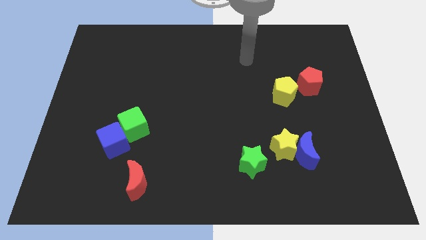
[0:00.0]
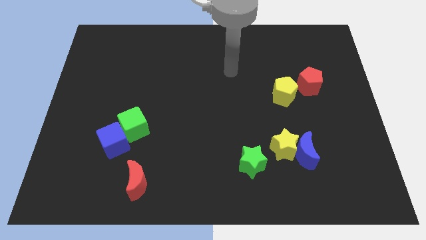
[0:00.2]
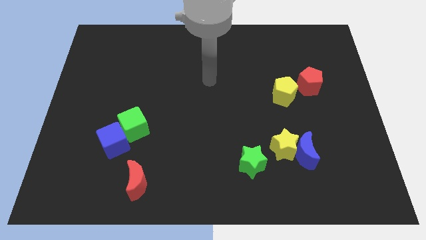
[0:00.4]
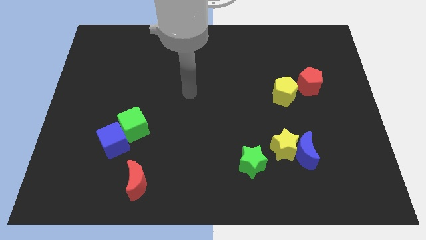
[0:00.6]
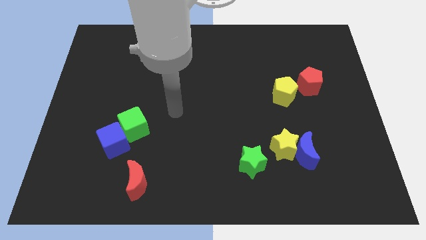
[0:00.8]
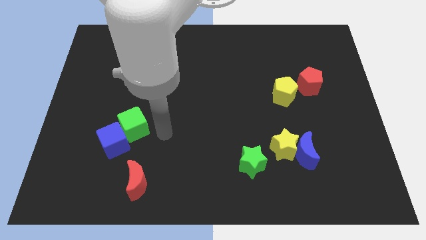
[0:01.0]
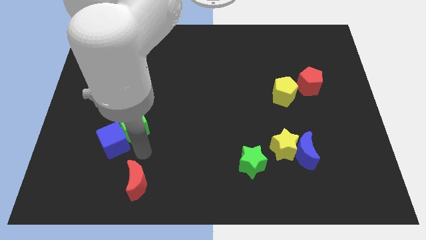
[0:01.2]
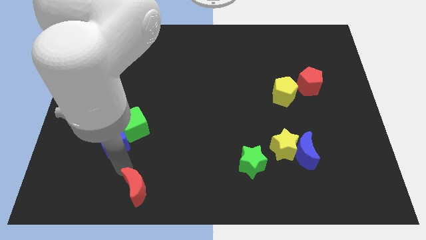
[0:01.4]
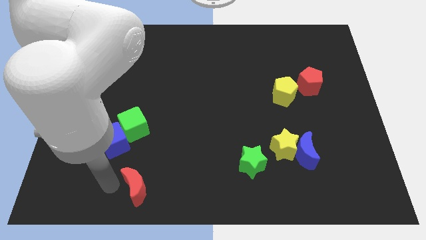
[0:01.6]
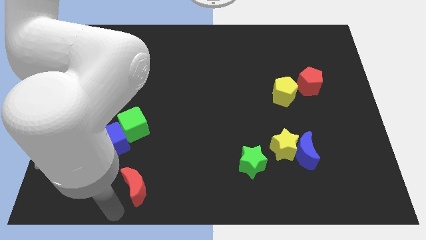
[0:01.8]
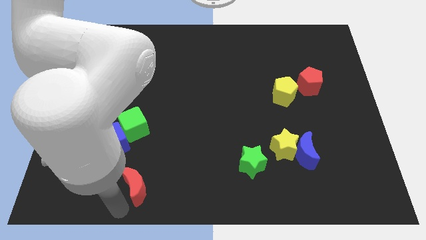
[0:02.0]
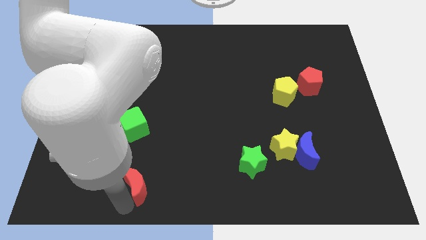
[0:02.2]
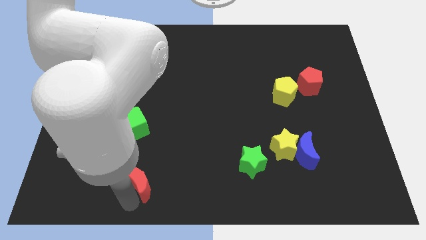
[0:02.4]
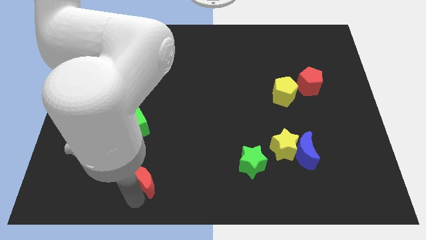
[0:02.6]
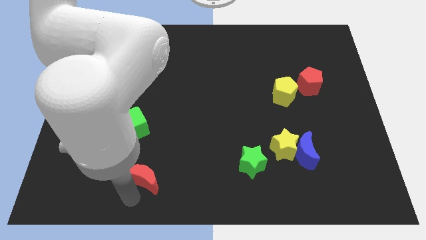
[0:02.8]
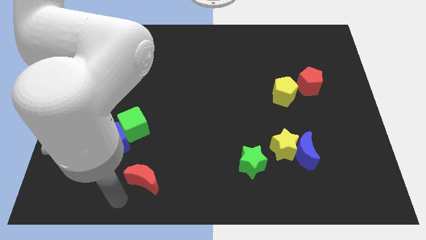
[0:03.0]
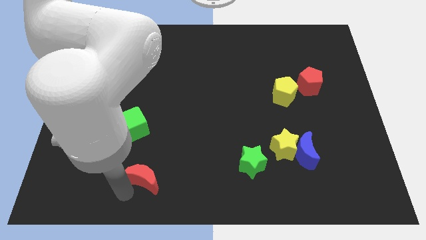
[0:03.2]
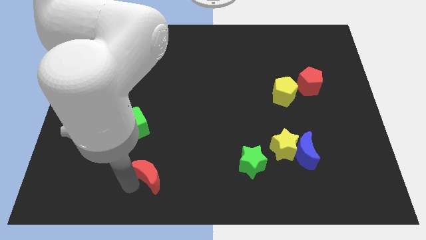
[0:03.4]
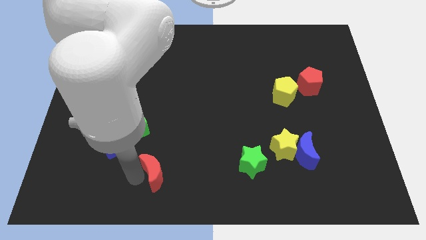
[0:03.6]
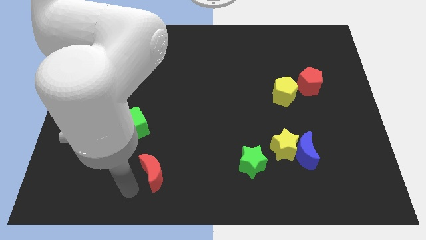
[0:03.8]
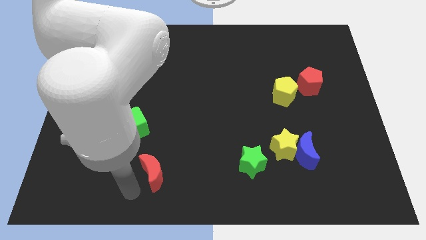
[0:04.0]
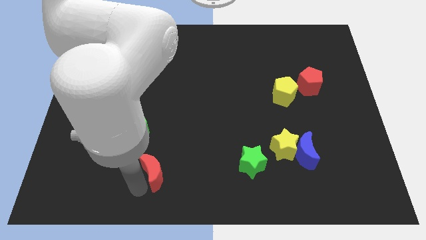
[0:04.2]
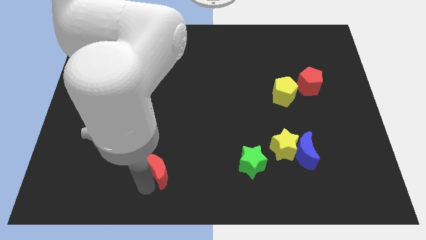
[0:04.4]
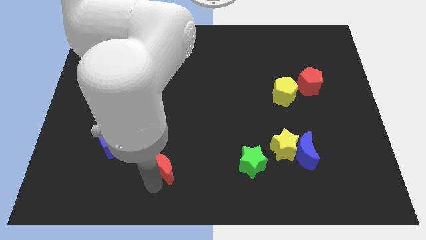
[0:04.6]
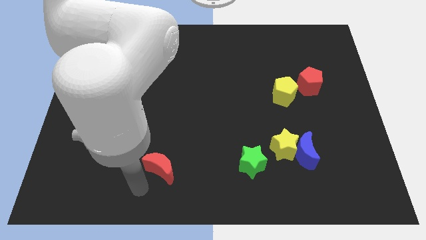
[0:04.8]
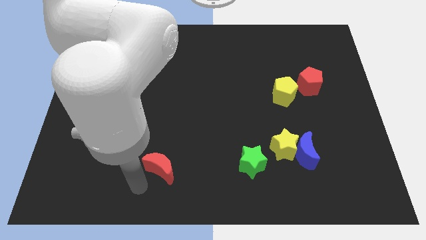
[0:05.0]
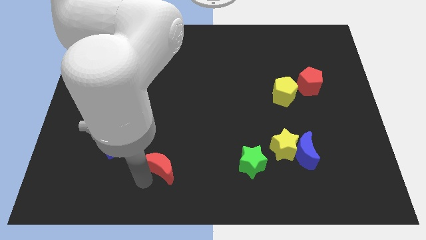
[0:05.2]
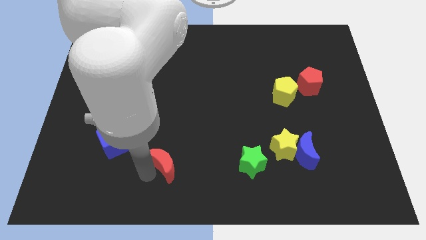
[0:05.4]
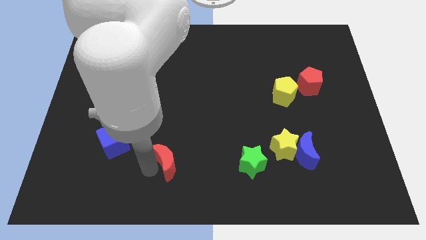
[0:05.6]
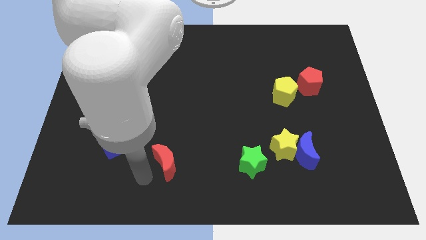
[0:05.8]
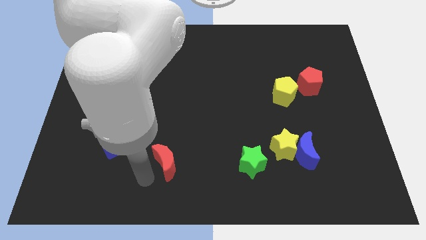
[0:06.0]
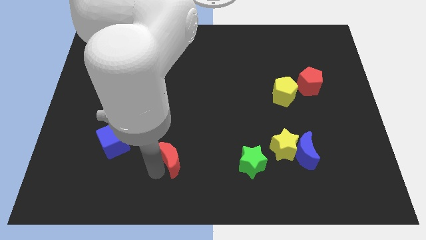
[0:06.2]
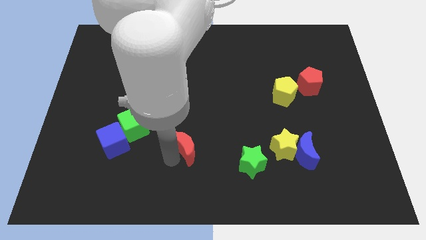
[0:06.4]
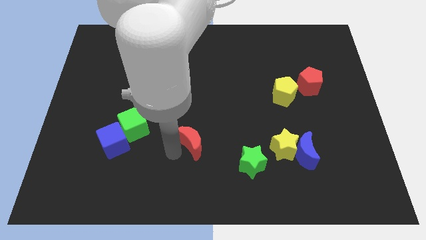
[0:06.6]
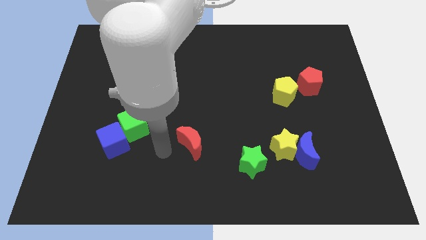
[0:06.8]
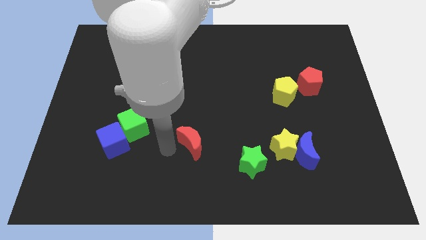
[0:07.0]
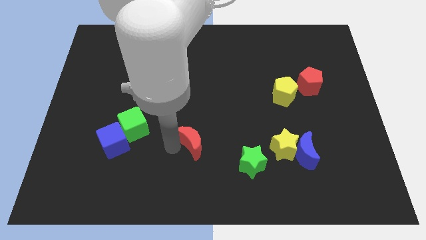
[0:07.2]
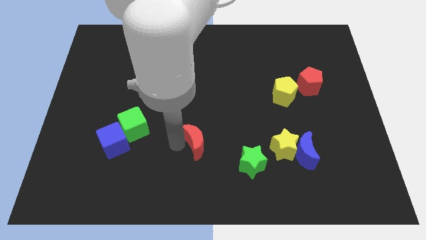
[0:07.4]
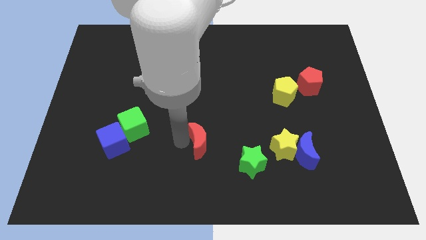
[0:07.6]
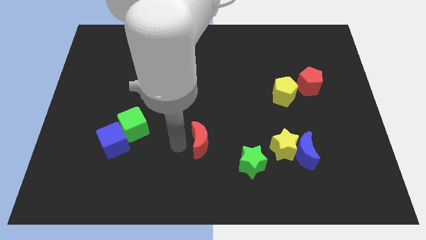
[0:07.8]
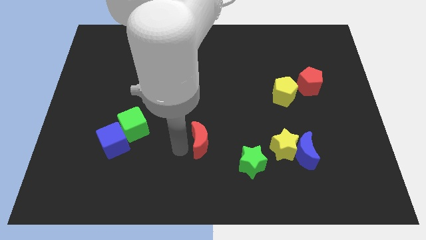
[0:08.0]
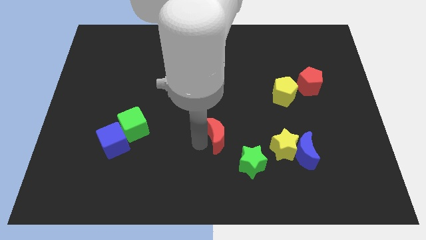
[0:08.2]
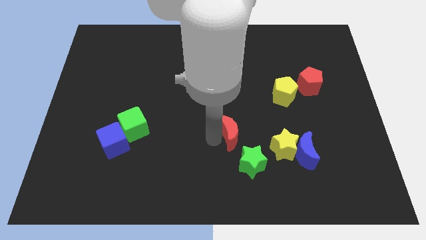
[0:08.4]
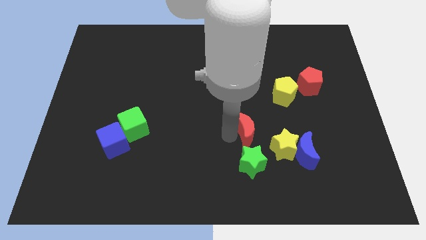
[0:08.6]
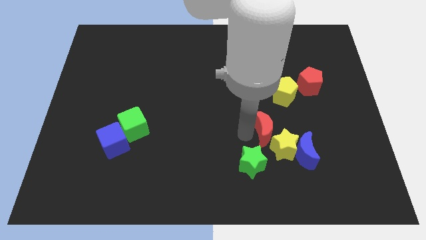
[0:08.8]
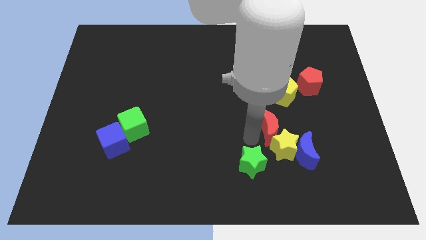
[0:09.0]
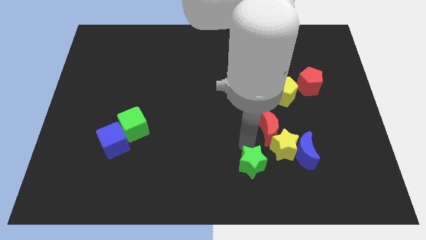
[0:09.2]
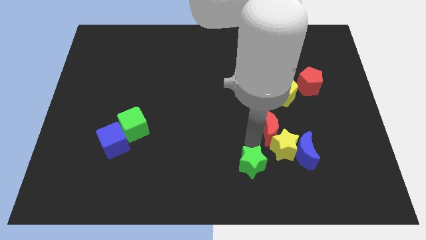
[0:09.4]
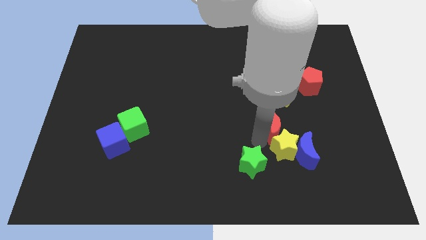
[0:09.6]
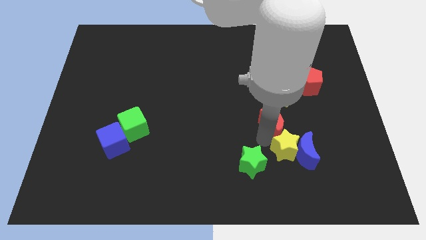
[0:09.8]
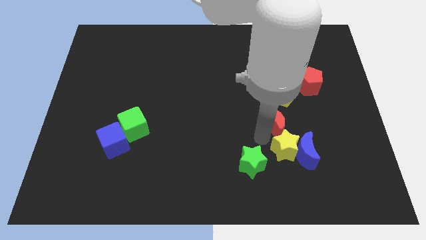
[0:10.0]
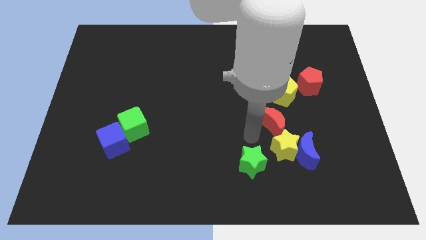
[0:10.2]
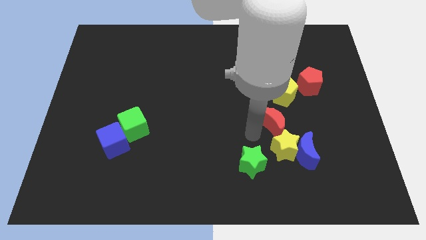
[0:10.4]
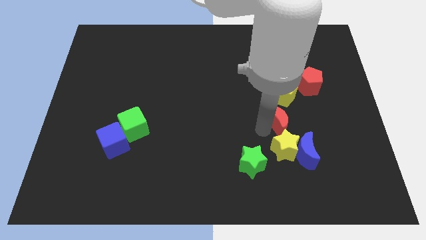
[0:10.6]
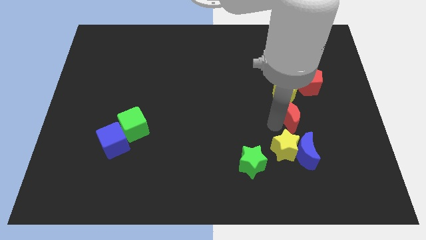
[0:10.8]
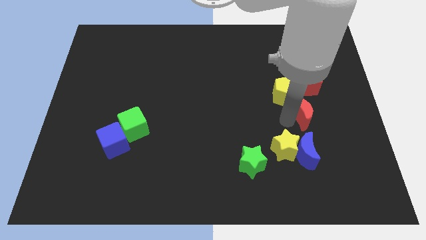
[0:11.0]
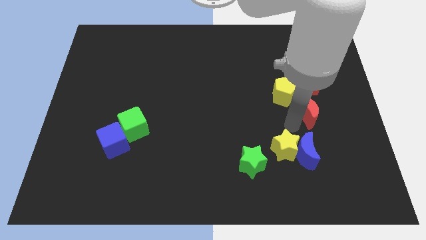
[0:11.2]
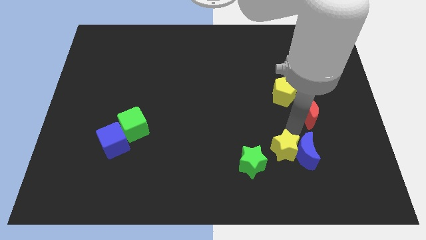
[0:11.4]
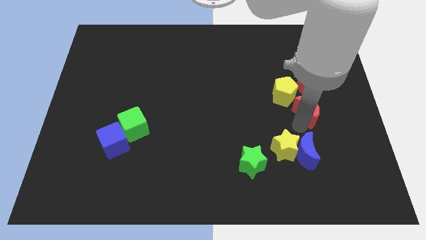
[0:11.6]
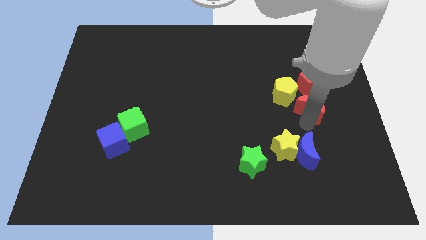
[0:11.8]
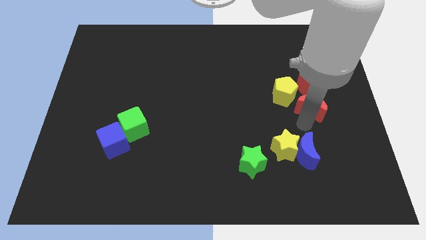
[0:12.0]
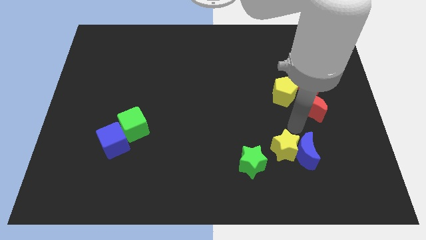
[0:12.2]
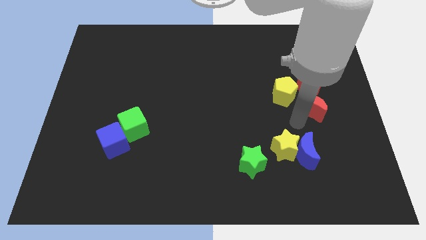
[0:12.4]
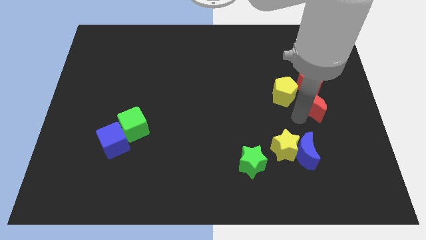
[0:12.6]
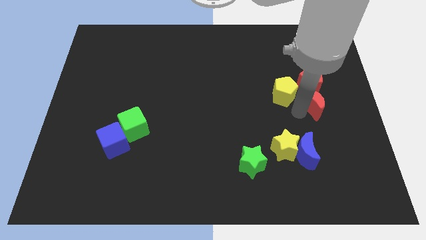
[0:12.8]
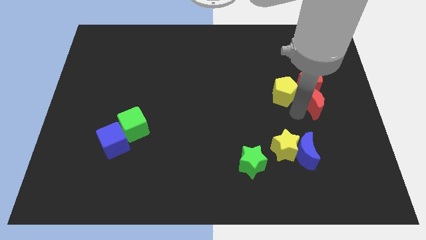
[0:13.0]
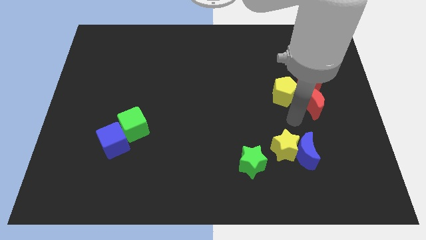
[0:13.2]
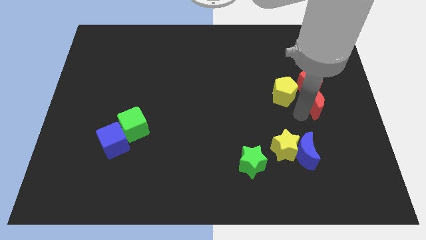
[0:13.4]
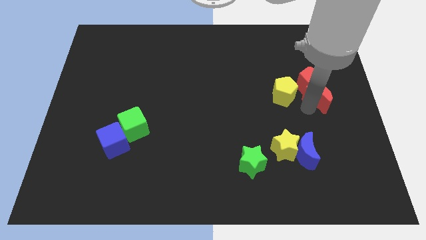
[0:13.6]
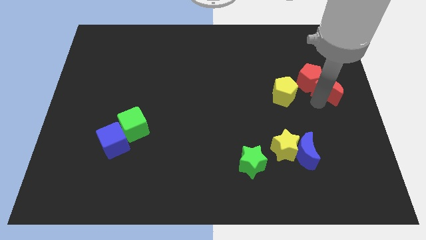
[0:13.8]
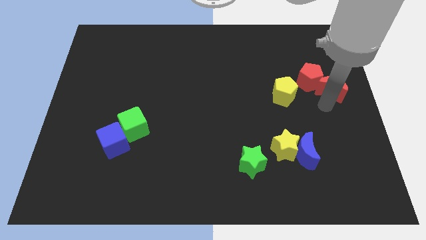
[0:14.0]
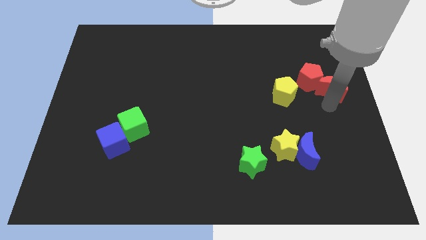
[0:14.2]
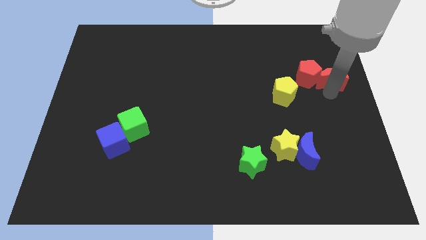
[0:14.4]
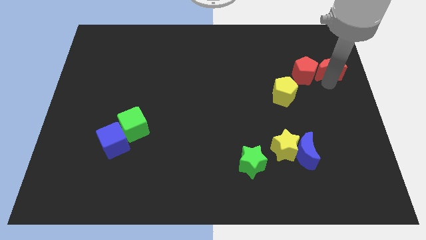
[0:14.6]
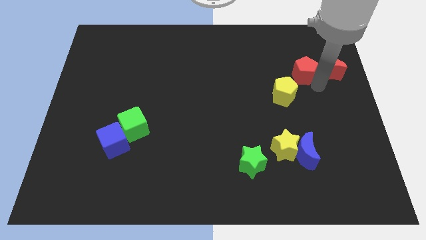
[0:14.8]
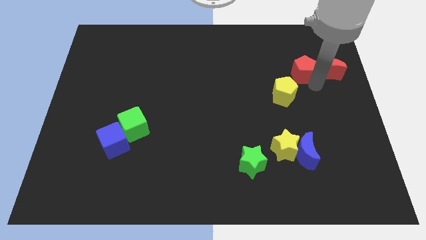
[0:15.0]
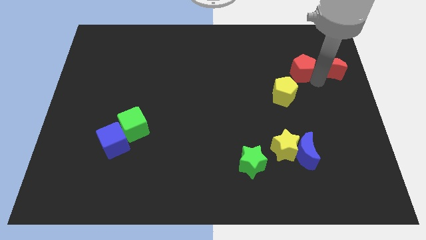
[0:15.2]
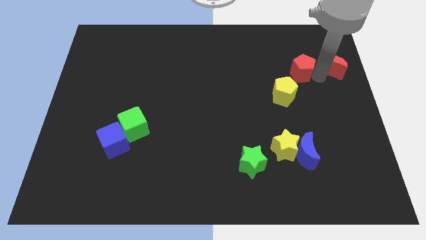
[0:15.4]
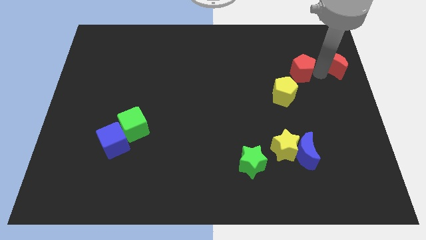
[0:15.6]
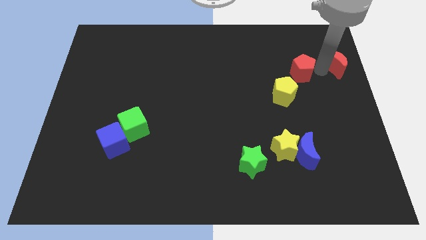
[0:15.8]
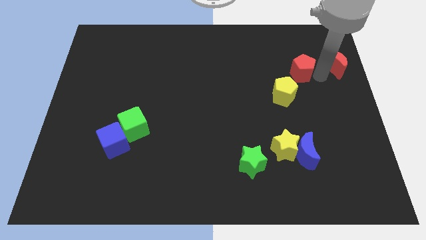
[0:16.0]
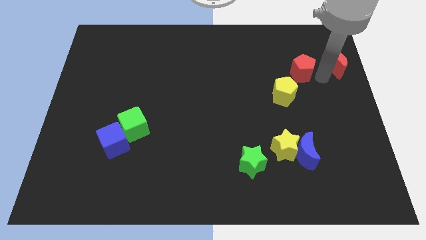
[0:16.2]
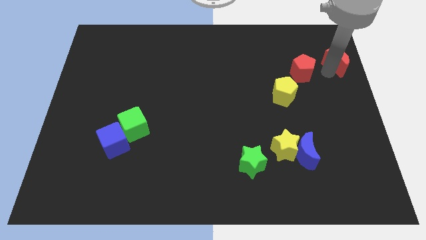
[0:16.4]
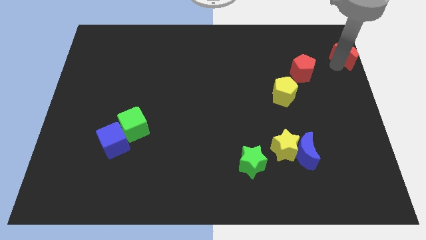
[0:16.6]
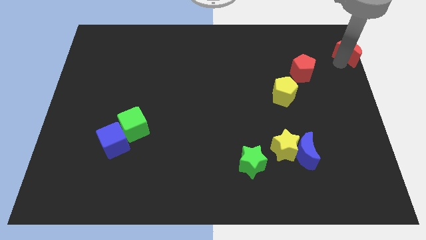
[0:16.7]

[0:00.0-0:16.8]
put the red moon to the top right corner
